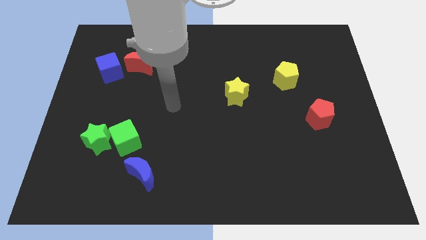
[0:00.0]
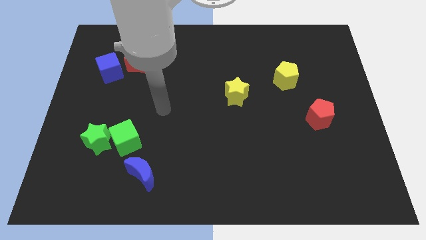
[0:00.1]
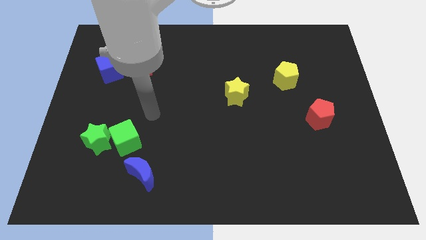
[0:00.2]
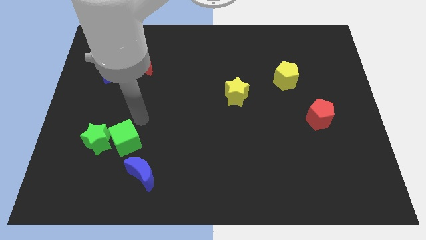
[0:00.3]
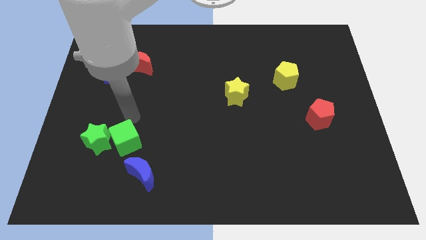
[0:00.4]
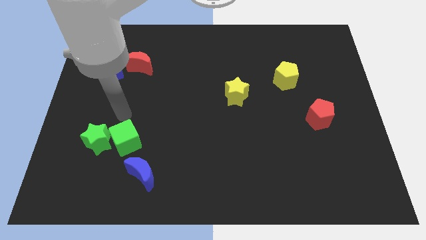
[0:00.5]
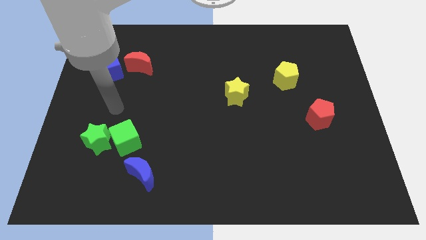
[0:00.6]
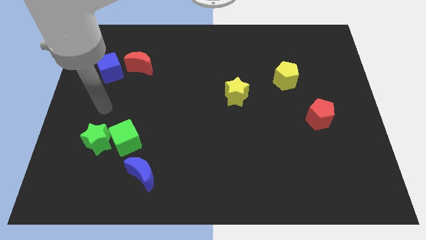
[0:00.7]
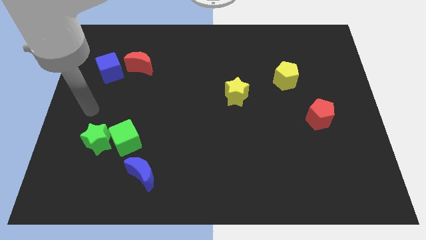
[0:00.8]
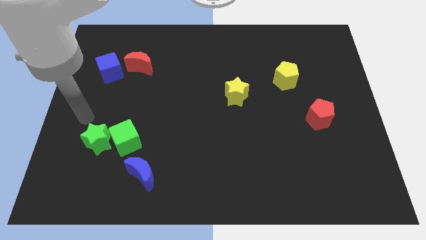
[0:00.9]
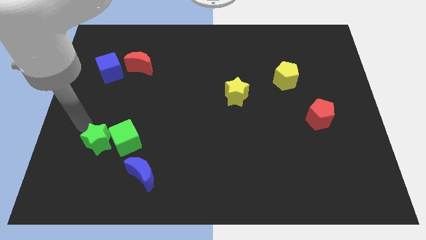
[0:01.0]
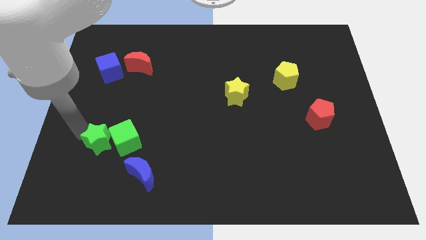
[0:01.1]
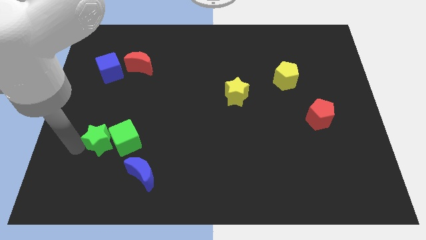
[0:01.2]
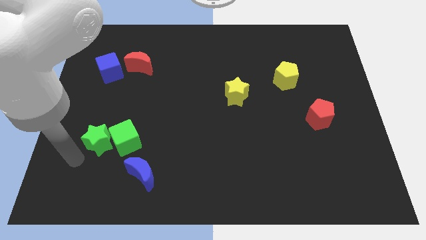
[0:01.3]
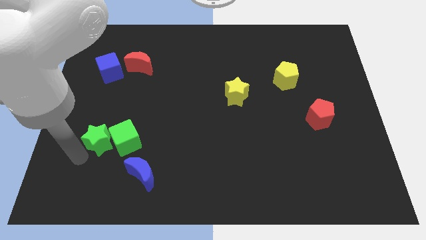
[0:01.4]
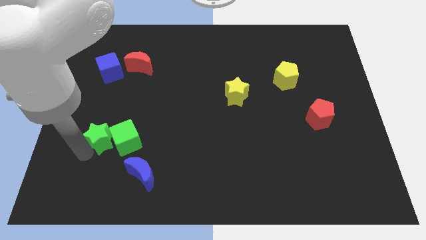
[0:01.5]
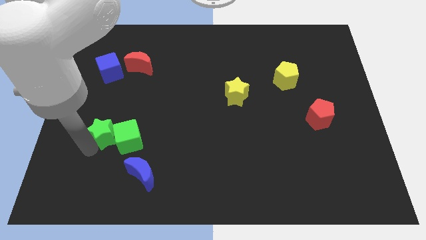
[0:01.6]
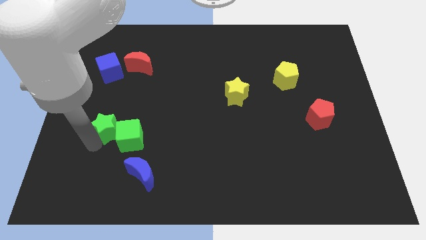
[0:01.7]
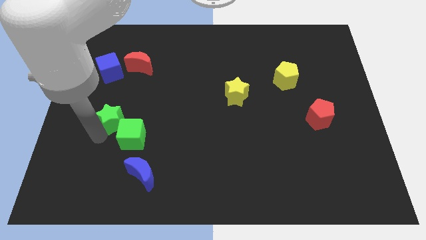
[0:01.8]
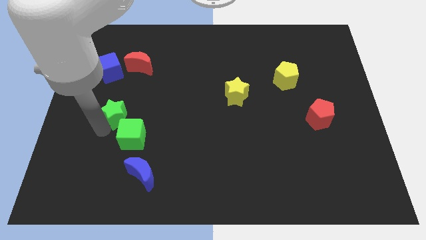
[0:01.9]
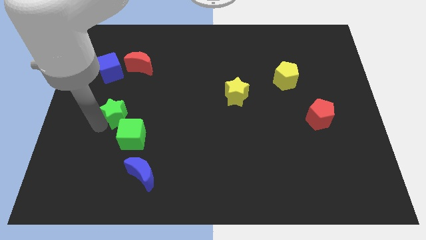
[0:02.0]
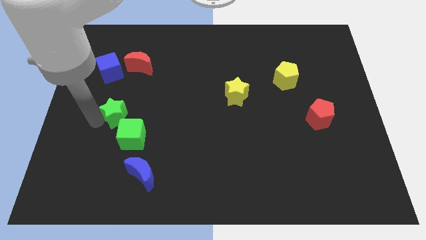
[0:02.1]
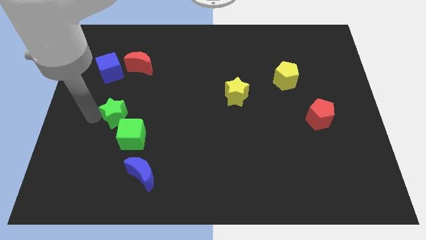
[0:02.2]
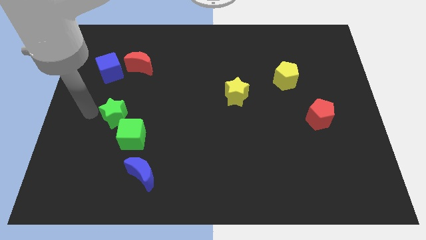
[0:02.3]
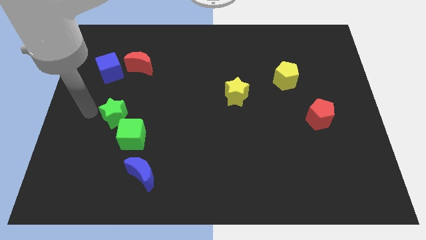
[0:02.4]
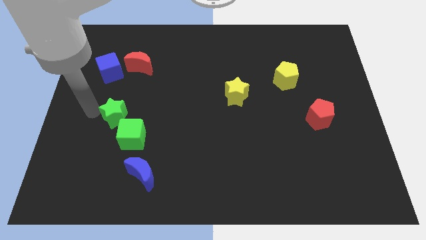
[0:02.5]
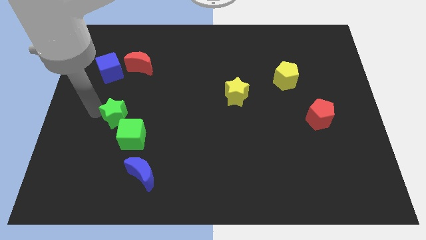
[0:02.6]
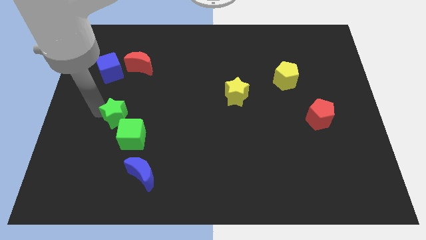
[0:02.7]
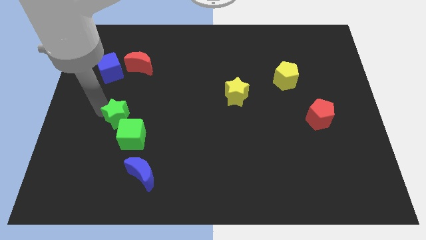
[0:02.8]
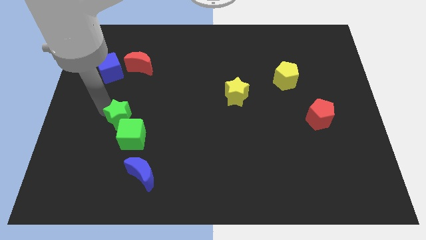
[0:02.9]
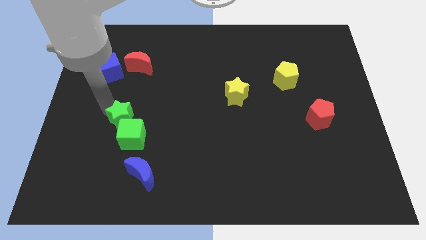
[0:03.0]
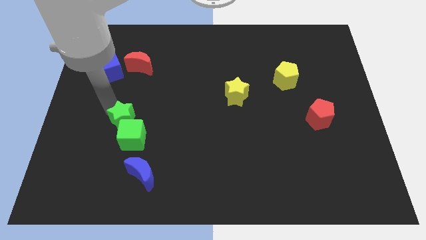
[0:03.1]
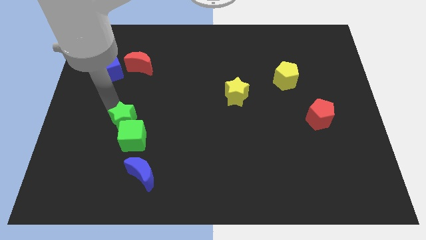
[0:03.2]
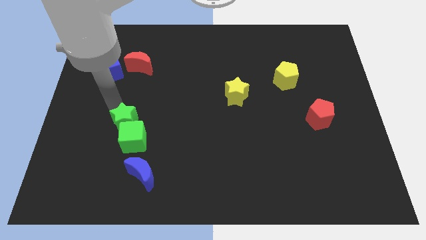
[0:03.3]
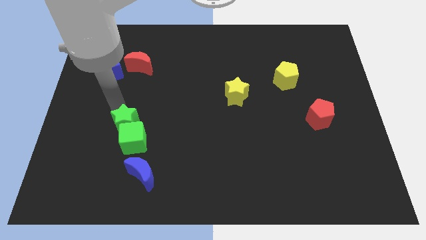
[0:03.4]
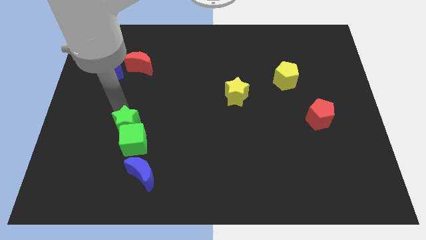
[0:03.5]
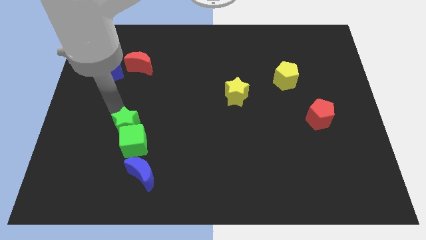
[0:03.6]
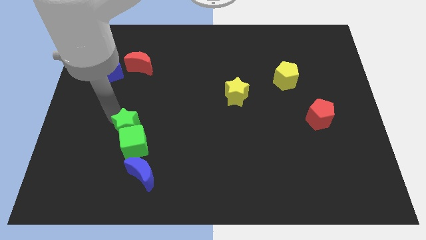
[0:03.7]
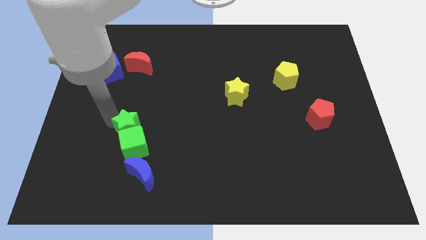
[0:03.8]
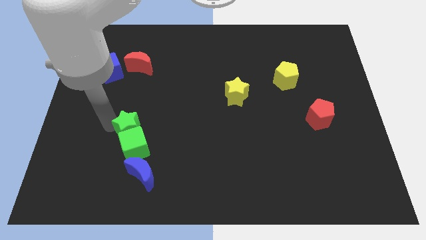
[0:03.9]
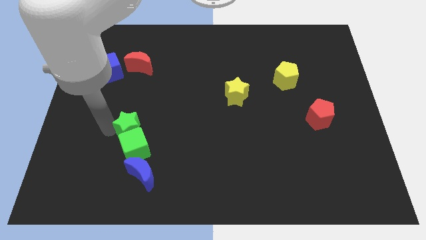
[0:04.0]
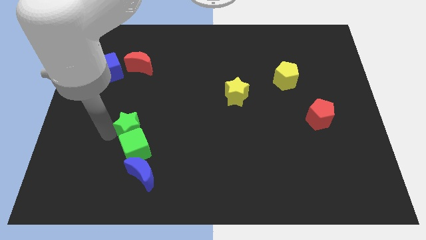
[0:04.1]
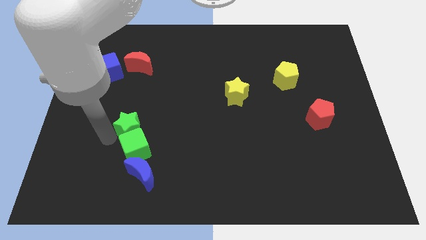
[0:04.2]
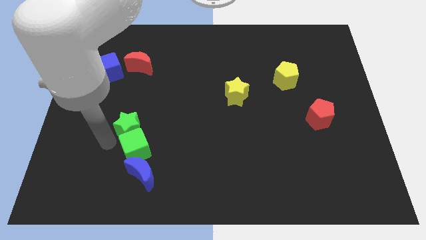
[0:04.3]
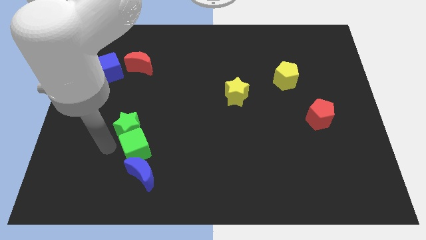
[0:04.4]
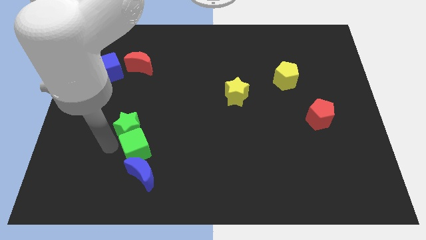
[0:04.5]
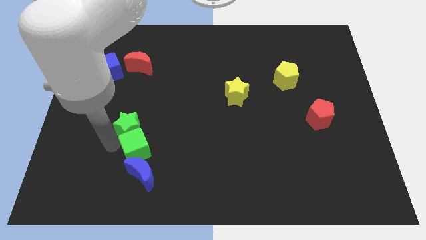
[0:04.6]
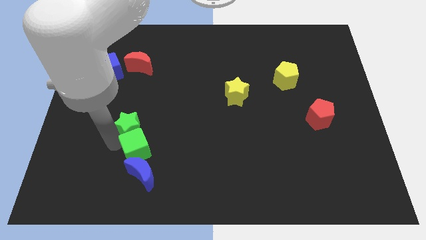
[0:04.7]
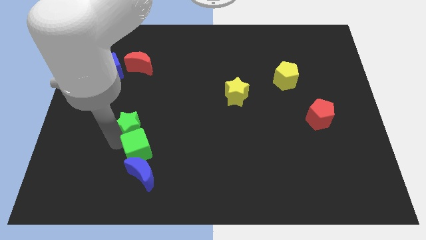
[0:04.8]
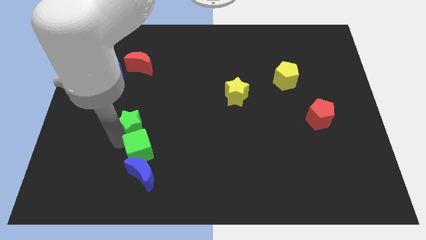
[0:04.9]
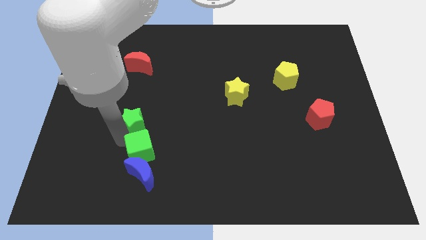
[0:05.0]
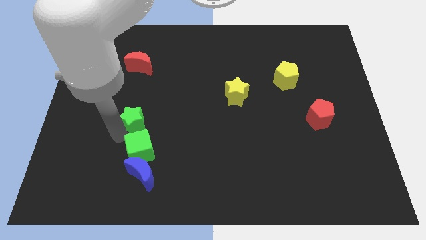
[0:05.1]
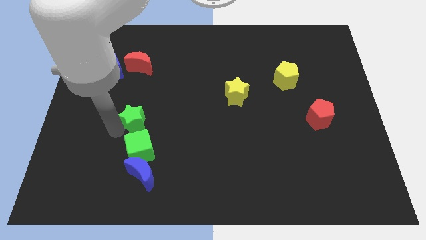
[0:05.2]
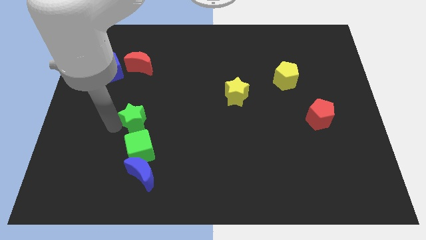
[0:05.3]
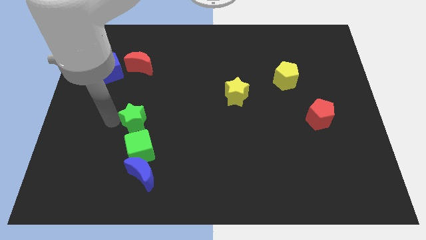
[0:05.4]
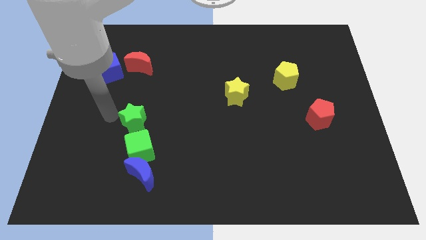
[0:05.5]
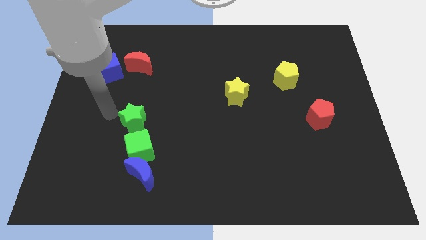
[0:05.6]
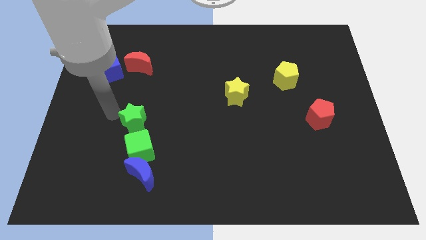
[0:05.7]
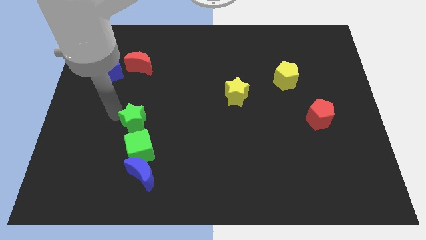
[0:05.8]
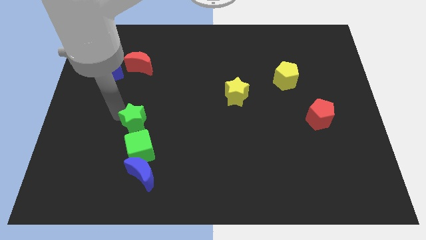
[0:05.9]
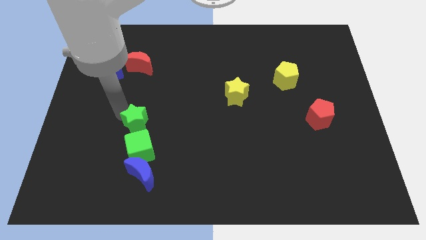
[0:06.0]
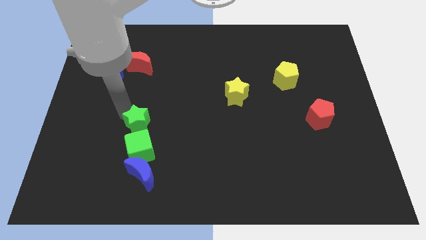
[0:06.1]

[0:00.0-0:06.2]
slightly slide the green star right

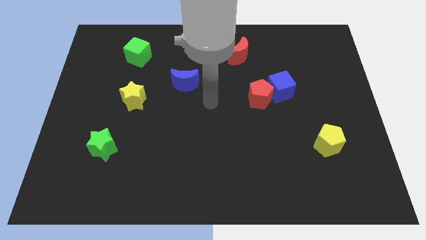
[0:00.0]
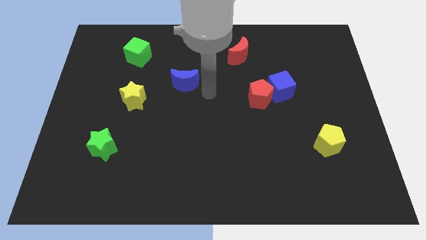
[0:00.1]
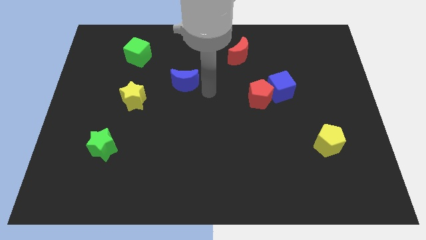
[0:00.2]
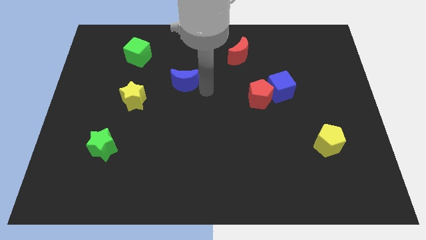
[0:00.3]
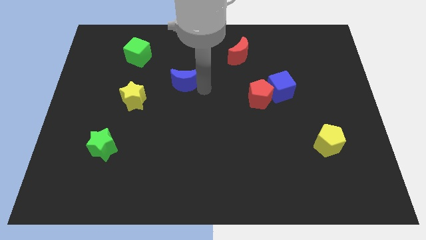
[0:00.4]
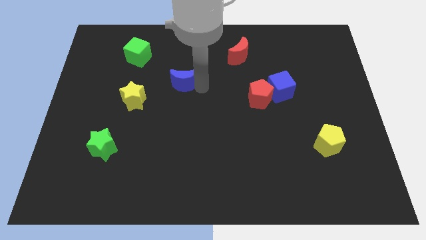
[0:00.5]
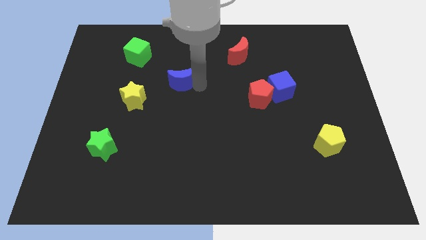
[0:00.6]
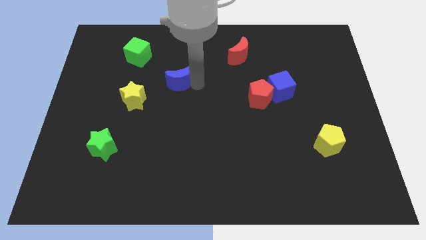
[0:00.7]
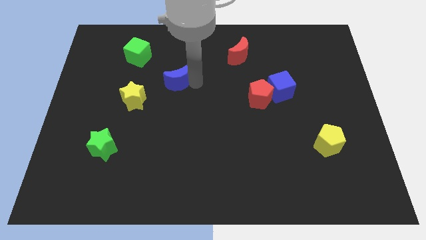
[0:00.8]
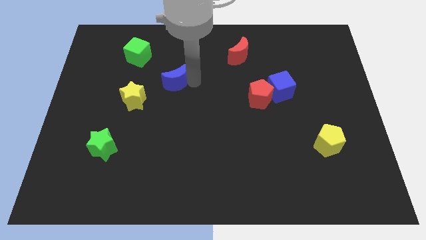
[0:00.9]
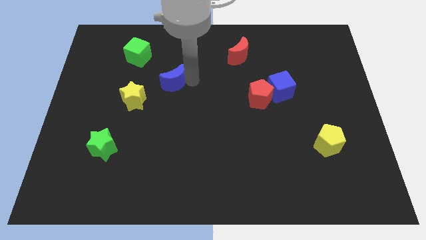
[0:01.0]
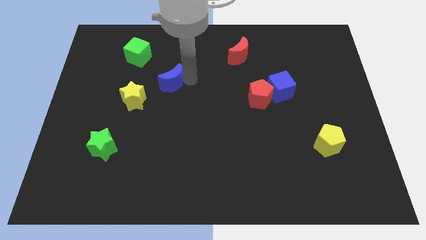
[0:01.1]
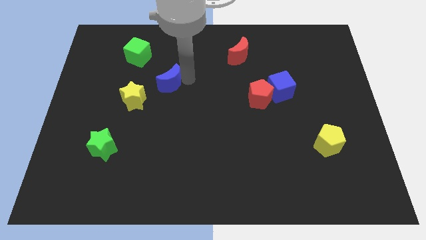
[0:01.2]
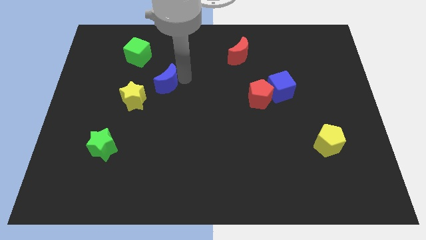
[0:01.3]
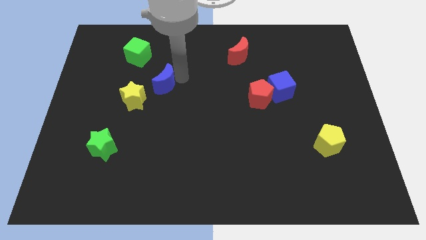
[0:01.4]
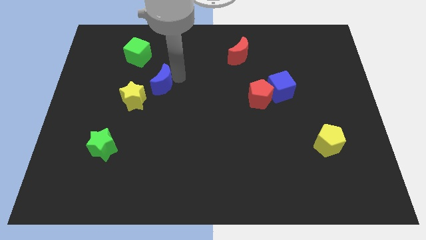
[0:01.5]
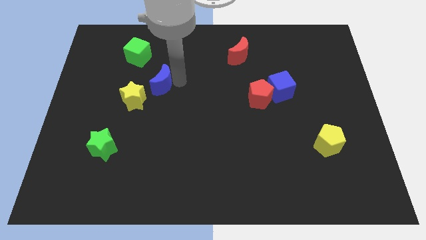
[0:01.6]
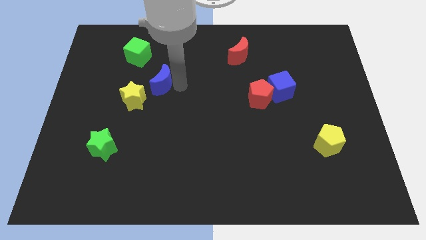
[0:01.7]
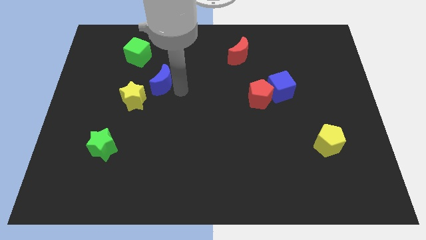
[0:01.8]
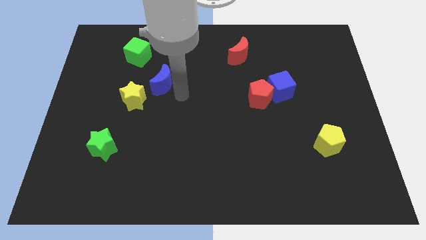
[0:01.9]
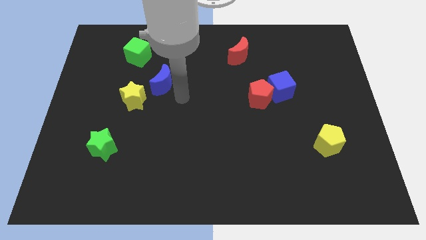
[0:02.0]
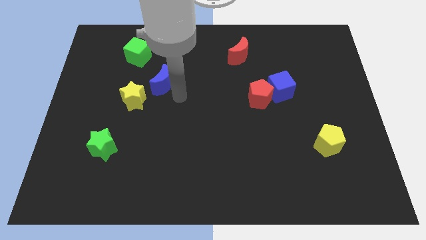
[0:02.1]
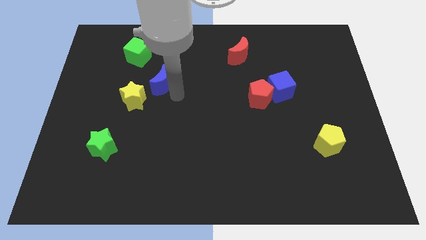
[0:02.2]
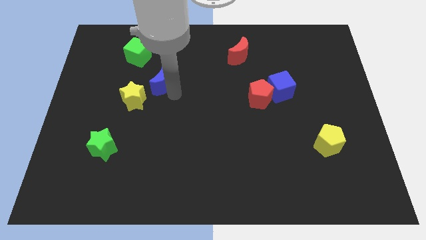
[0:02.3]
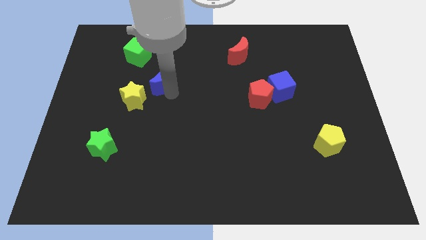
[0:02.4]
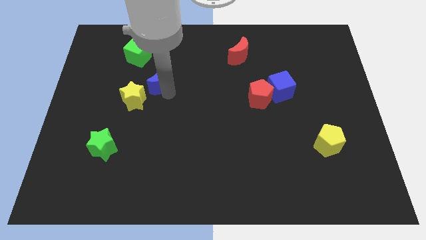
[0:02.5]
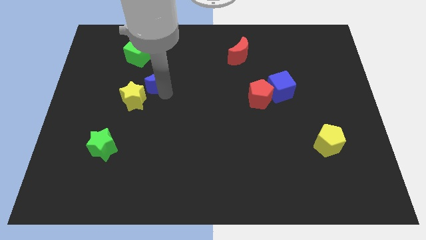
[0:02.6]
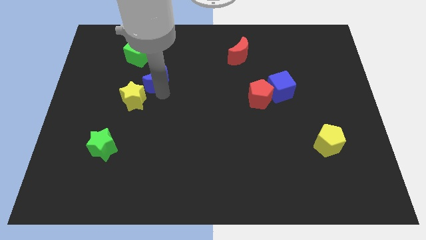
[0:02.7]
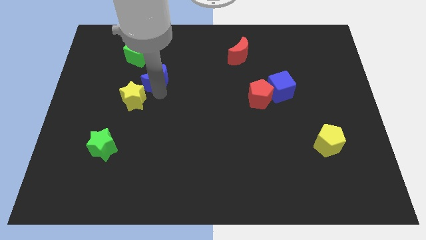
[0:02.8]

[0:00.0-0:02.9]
move the blue moon to the left slightly
